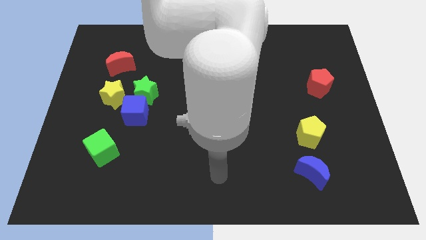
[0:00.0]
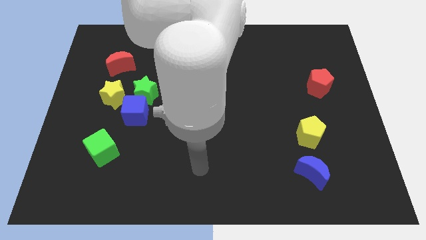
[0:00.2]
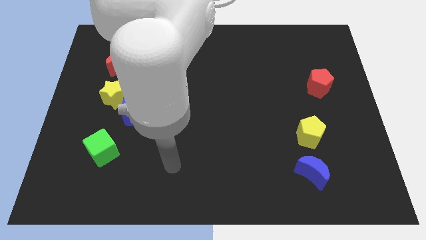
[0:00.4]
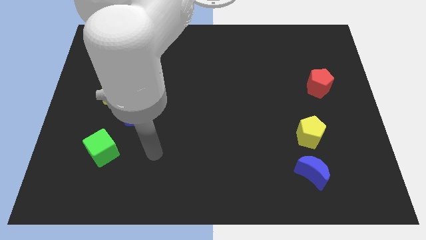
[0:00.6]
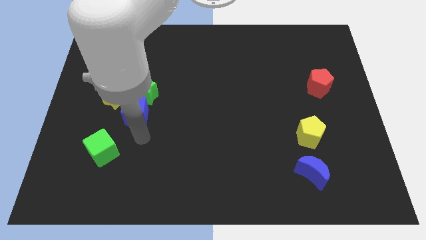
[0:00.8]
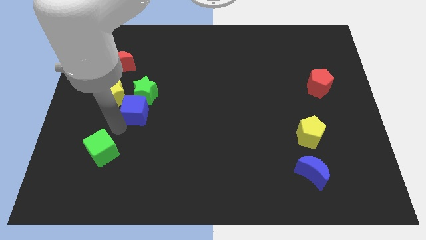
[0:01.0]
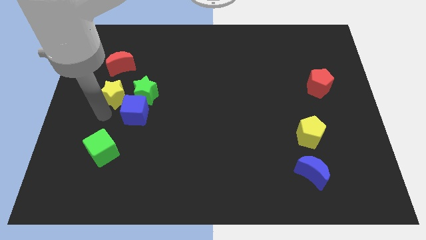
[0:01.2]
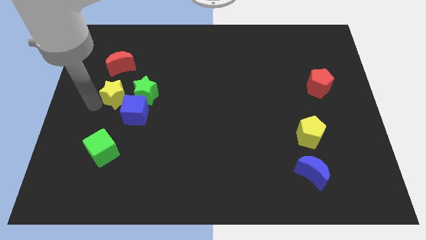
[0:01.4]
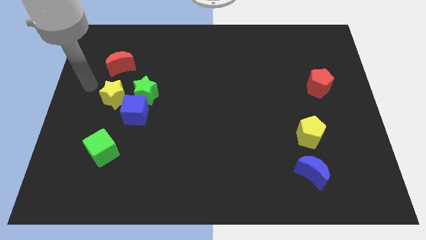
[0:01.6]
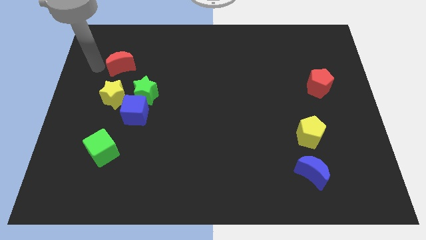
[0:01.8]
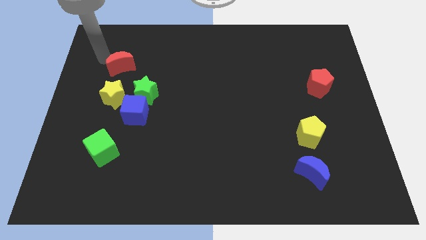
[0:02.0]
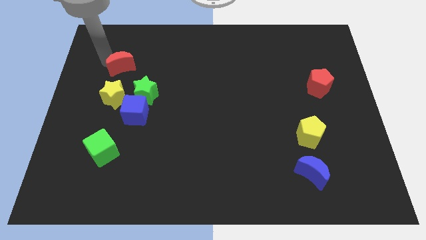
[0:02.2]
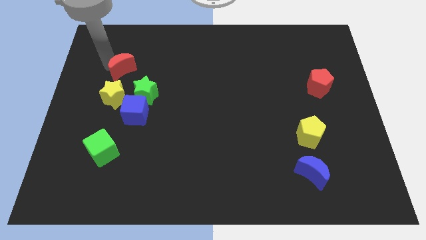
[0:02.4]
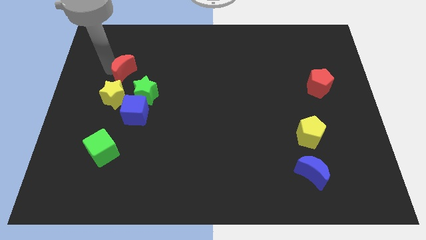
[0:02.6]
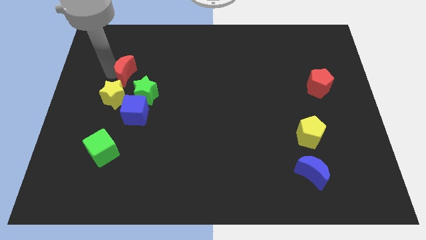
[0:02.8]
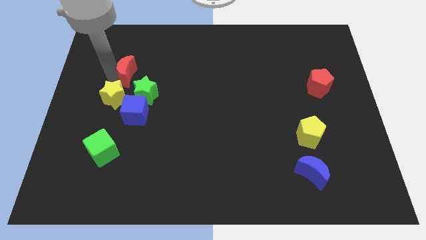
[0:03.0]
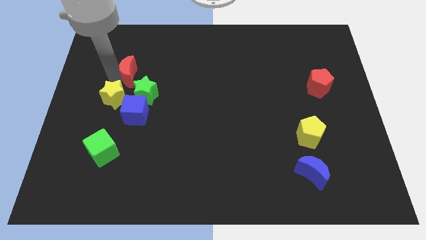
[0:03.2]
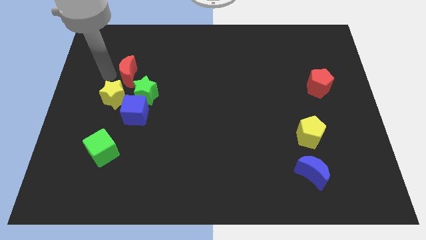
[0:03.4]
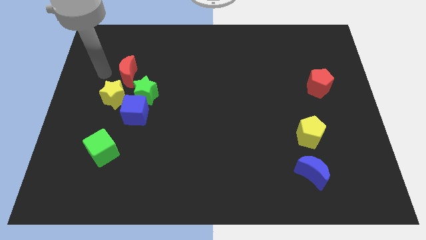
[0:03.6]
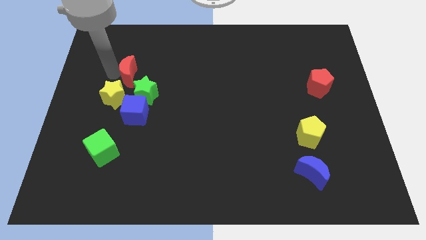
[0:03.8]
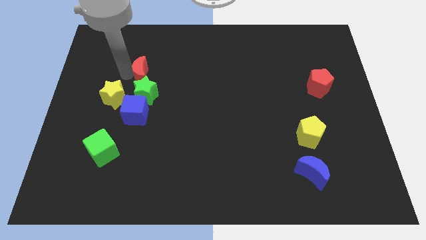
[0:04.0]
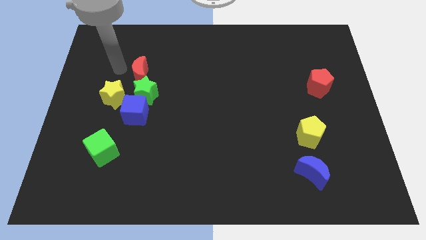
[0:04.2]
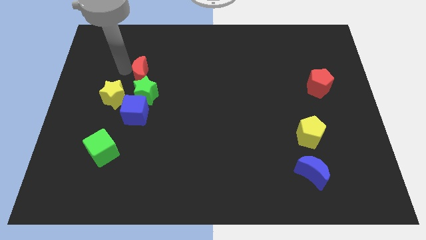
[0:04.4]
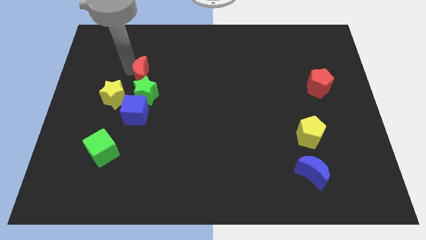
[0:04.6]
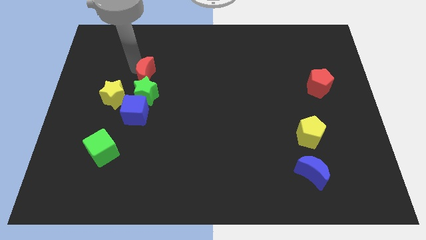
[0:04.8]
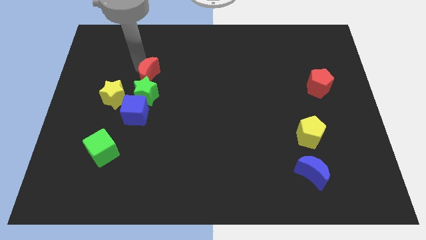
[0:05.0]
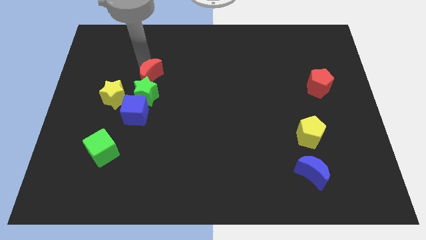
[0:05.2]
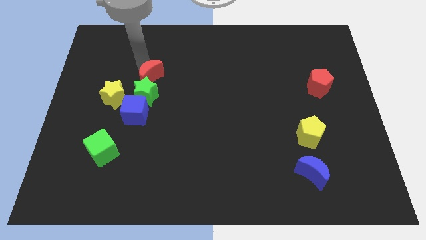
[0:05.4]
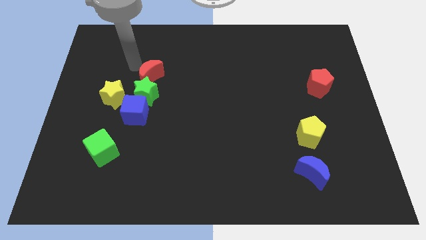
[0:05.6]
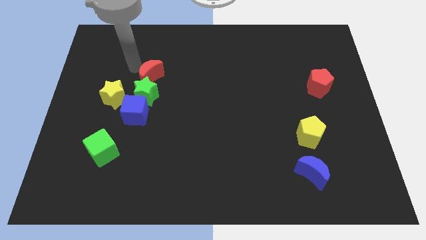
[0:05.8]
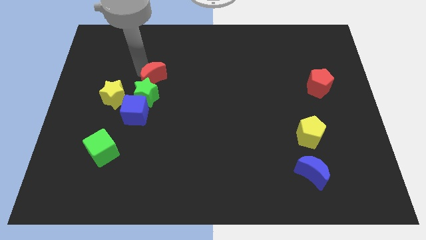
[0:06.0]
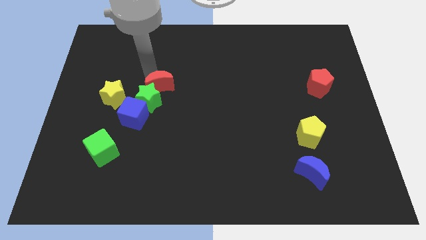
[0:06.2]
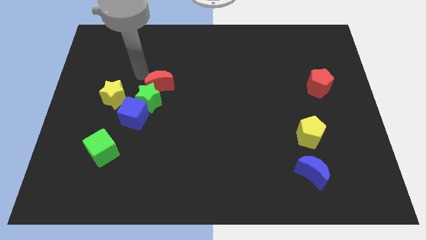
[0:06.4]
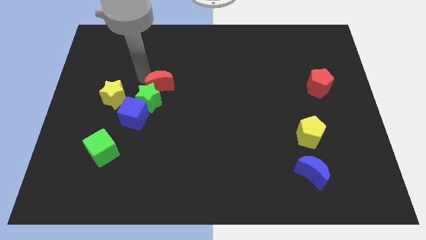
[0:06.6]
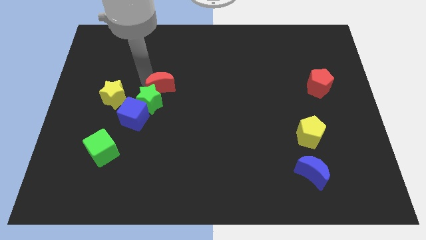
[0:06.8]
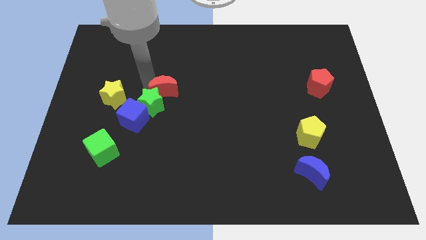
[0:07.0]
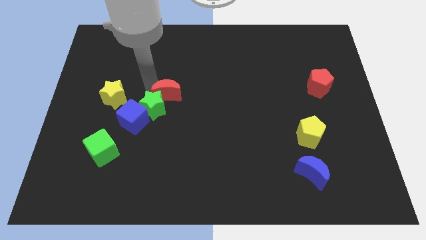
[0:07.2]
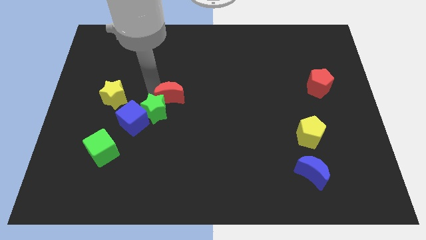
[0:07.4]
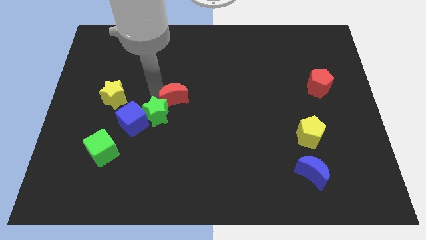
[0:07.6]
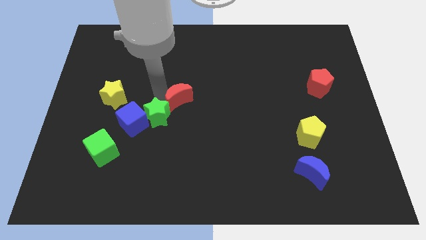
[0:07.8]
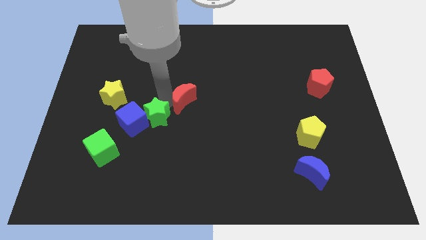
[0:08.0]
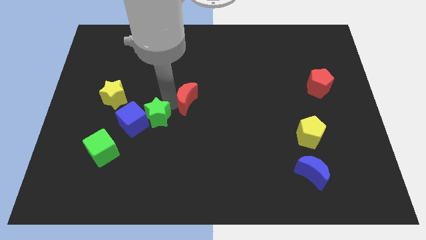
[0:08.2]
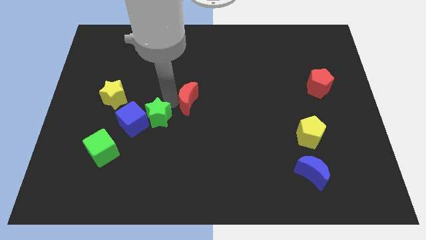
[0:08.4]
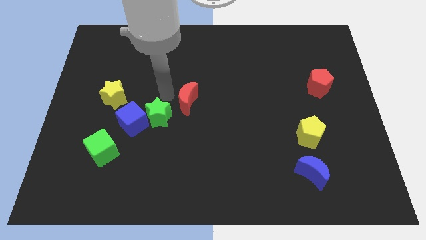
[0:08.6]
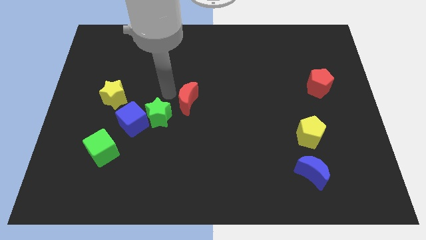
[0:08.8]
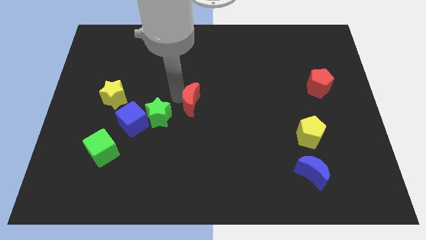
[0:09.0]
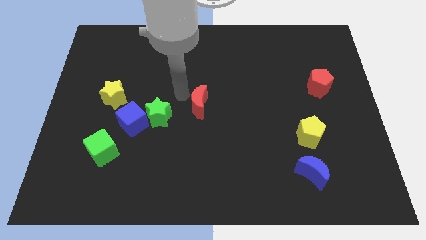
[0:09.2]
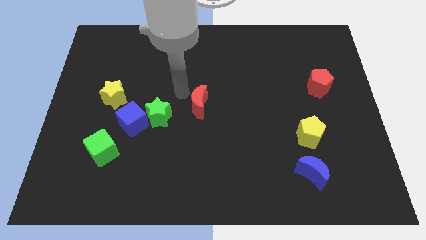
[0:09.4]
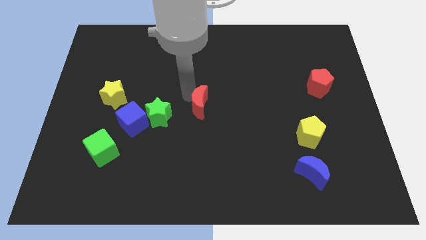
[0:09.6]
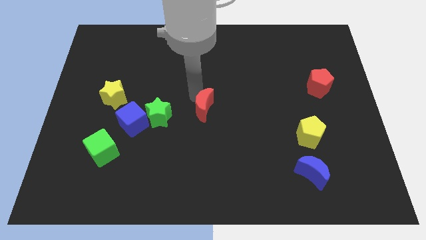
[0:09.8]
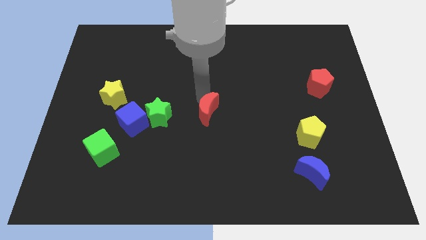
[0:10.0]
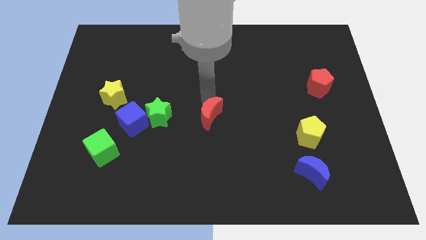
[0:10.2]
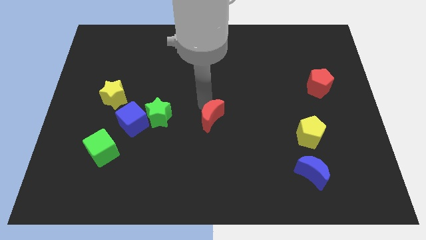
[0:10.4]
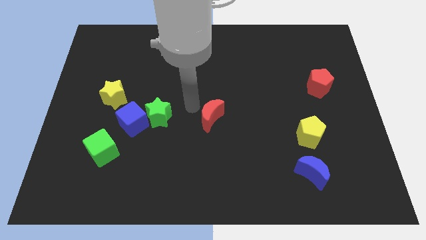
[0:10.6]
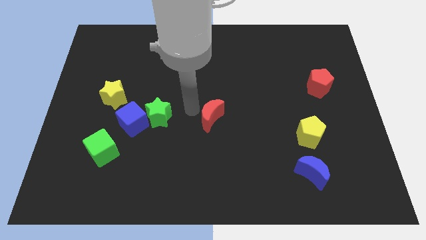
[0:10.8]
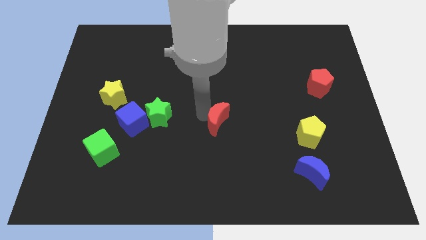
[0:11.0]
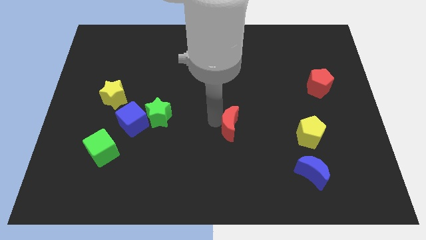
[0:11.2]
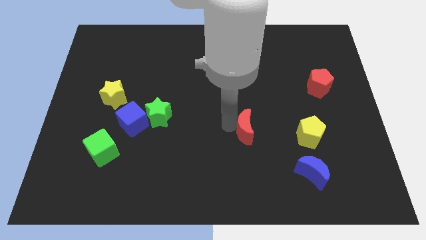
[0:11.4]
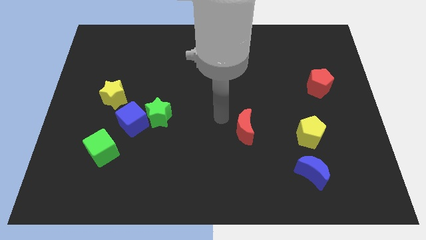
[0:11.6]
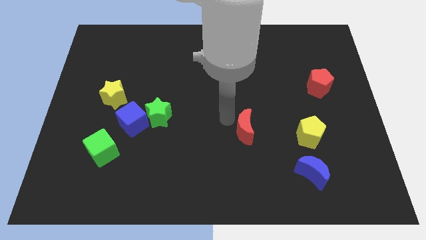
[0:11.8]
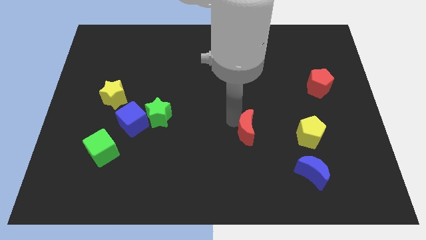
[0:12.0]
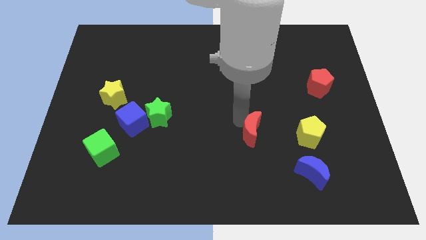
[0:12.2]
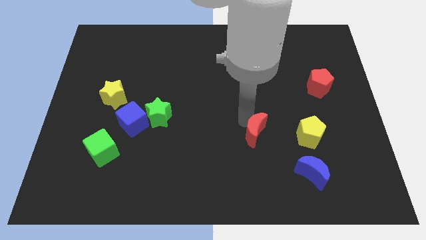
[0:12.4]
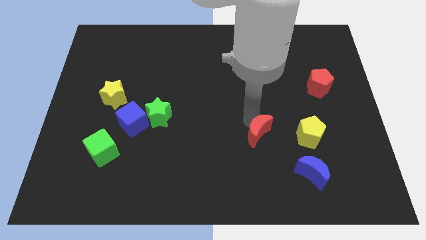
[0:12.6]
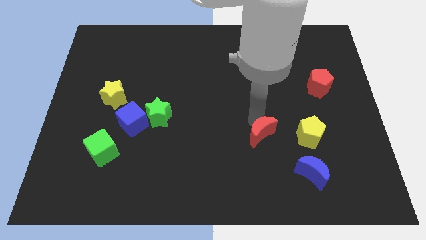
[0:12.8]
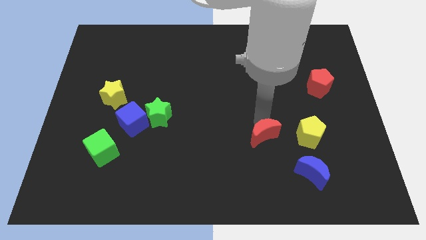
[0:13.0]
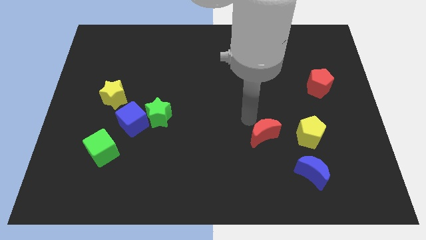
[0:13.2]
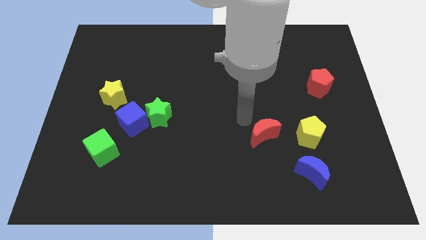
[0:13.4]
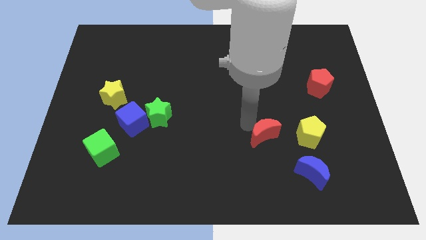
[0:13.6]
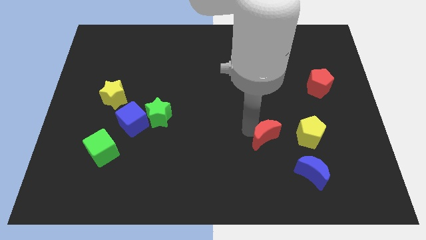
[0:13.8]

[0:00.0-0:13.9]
put the red moon diagonally up and to the left of the blue moon
